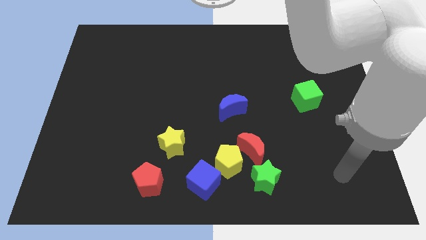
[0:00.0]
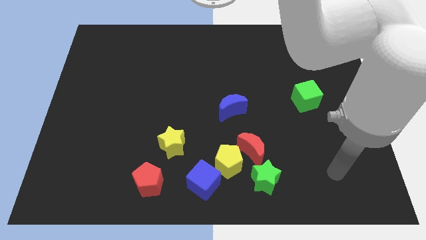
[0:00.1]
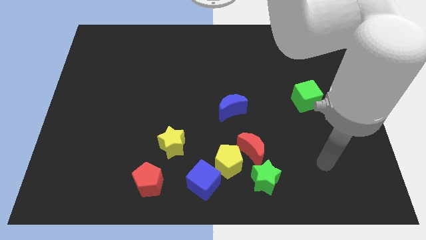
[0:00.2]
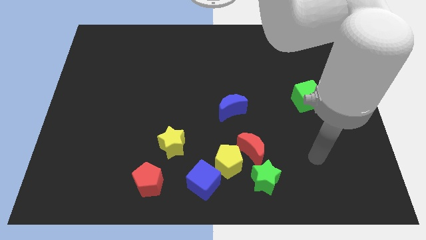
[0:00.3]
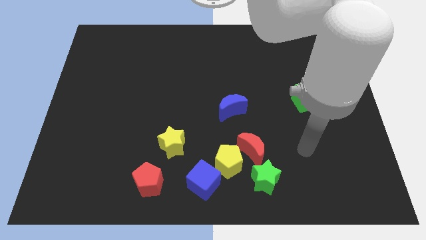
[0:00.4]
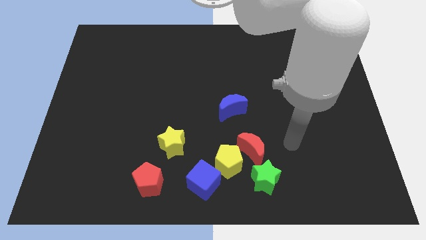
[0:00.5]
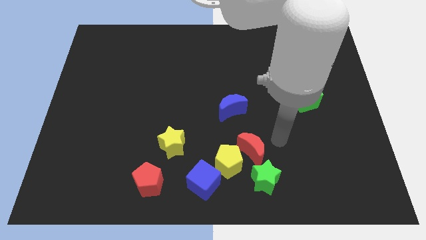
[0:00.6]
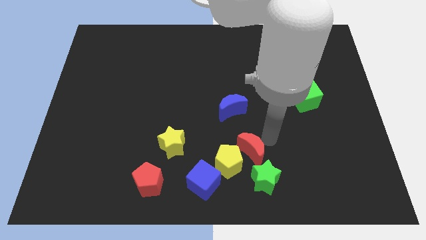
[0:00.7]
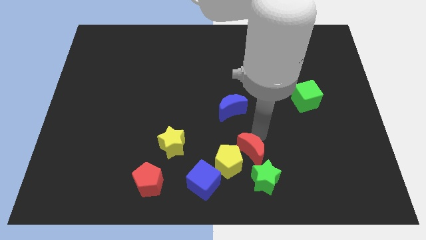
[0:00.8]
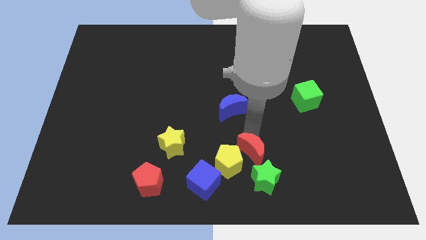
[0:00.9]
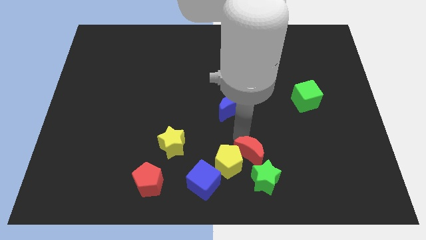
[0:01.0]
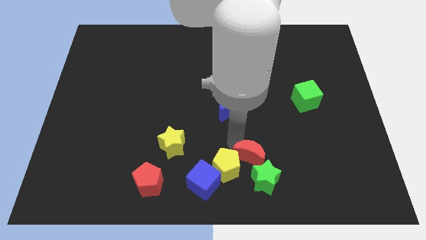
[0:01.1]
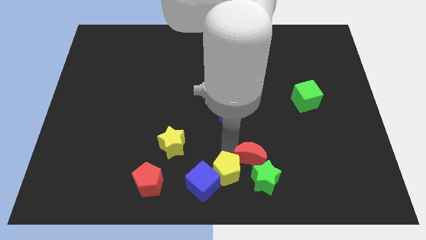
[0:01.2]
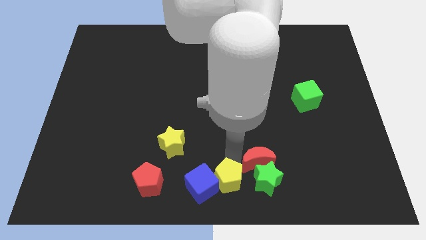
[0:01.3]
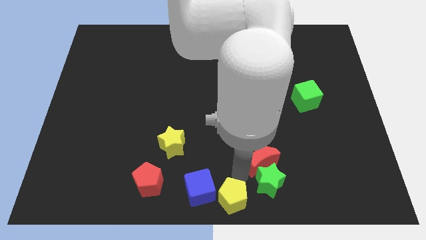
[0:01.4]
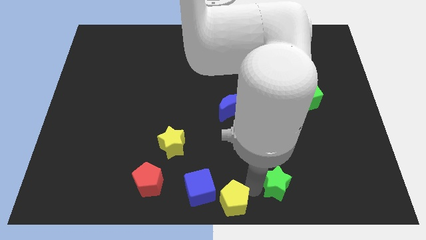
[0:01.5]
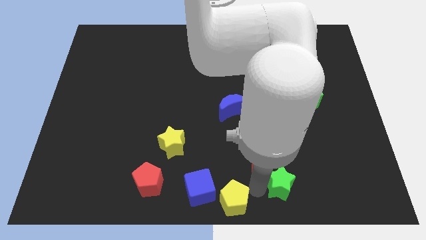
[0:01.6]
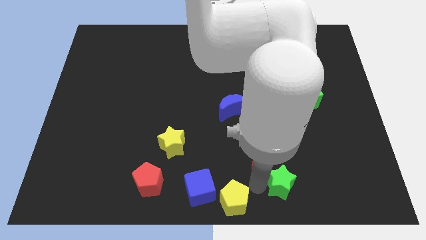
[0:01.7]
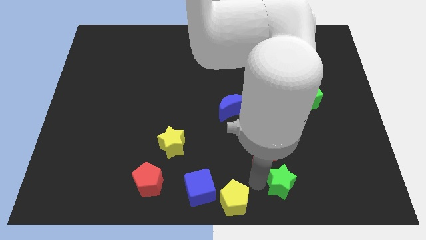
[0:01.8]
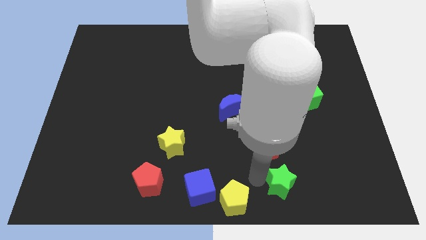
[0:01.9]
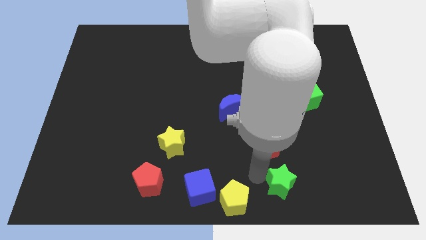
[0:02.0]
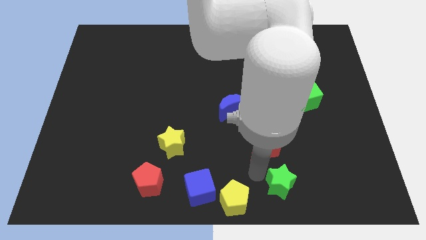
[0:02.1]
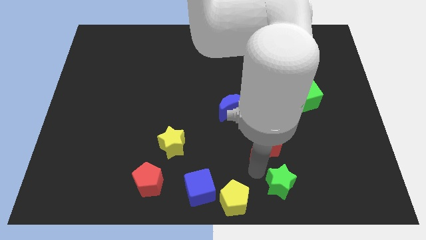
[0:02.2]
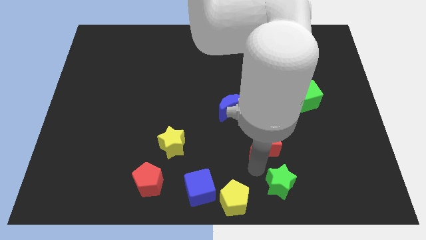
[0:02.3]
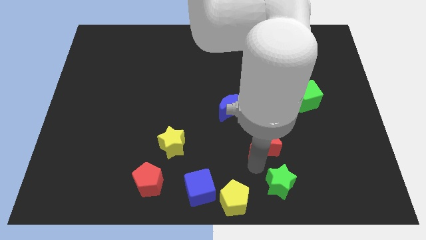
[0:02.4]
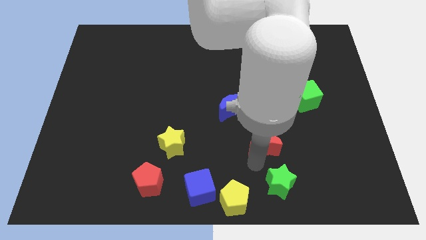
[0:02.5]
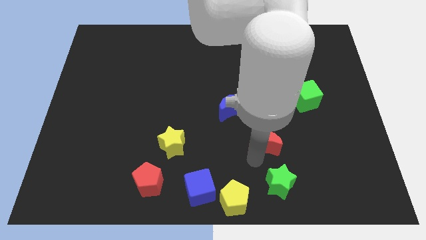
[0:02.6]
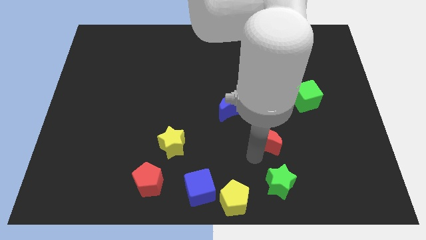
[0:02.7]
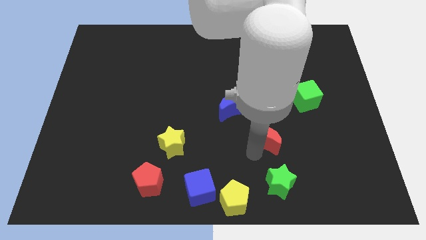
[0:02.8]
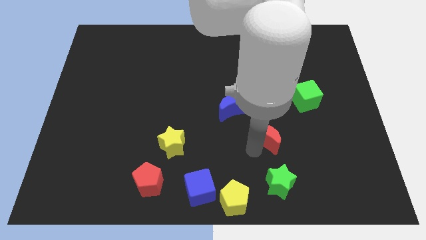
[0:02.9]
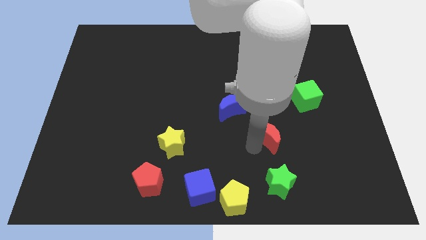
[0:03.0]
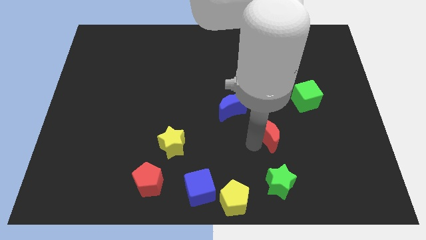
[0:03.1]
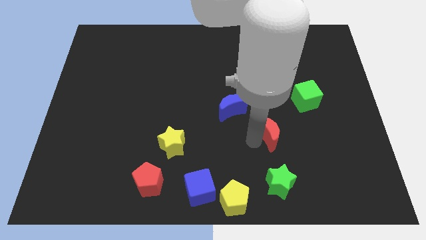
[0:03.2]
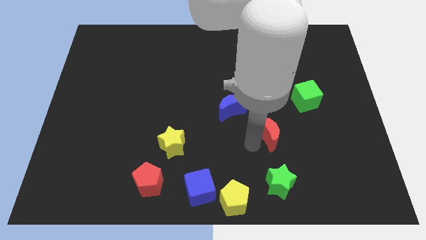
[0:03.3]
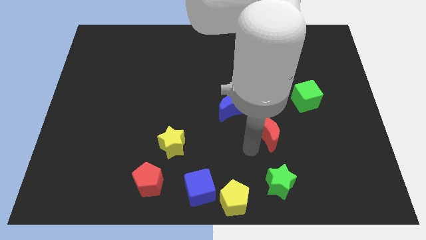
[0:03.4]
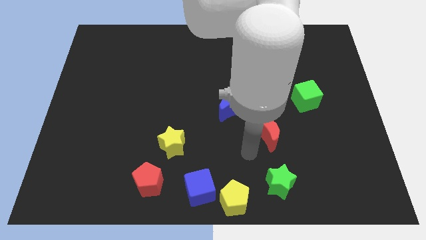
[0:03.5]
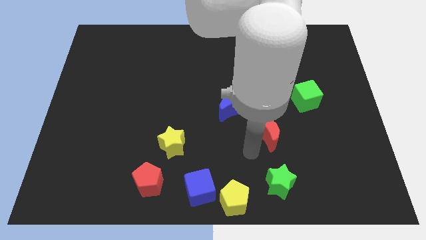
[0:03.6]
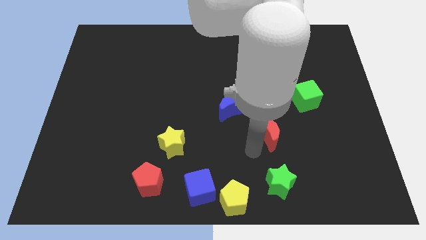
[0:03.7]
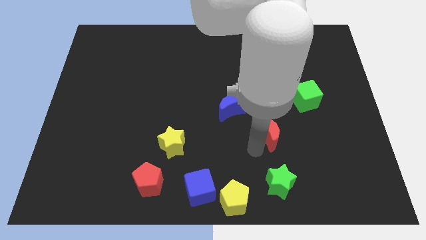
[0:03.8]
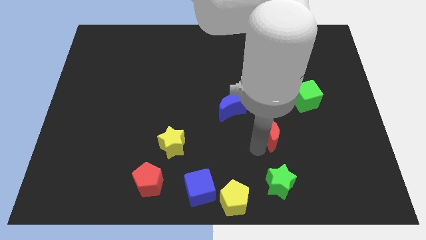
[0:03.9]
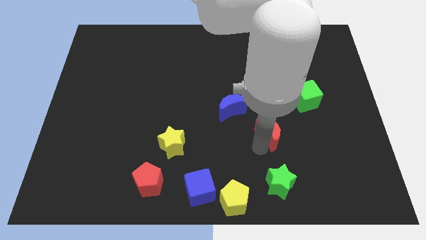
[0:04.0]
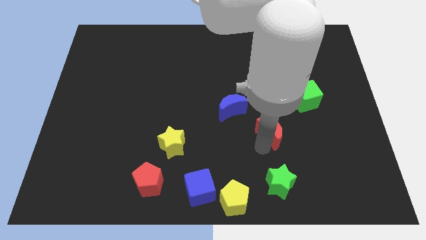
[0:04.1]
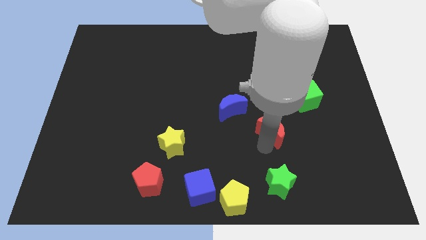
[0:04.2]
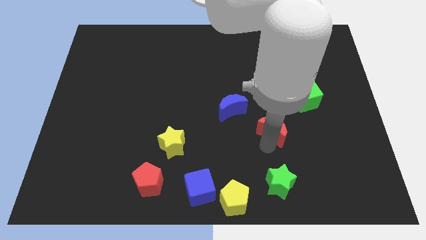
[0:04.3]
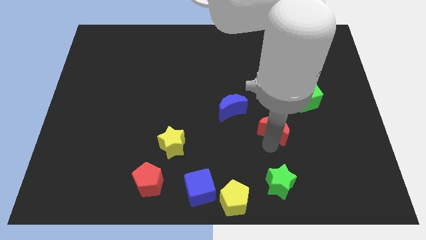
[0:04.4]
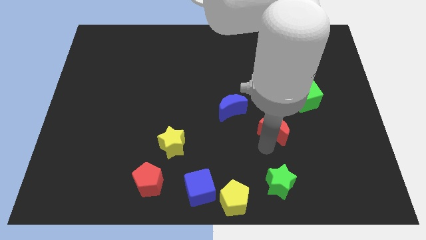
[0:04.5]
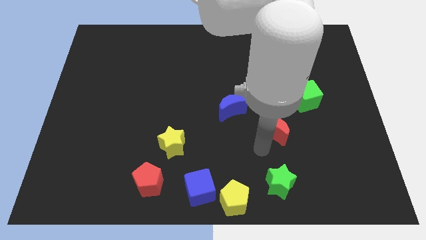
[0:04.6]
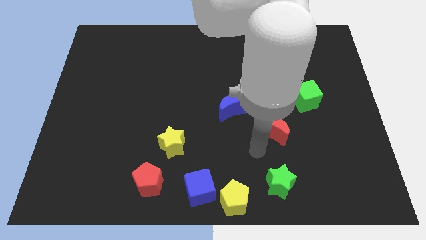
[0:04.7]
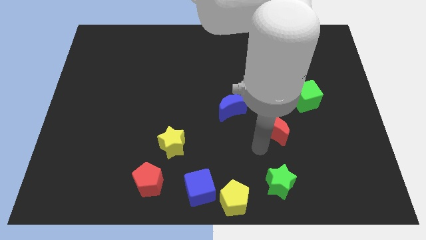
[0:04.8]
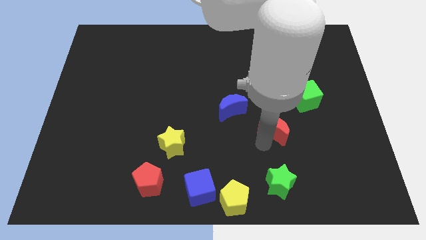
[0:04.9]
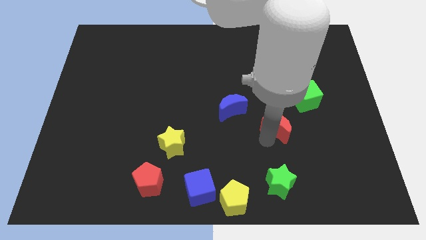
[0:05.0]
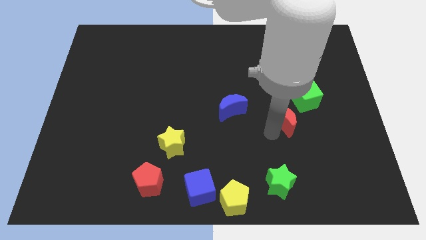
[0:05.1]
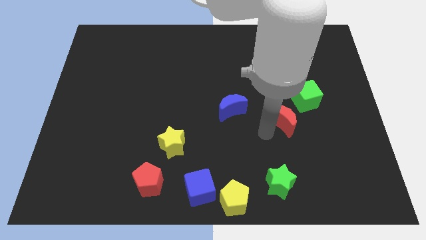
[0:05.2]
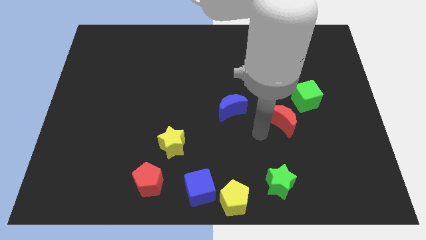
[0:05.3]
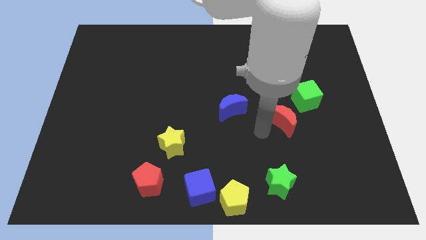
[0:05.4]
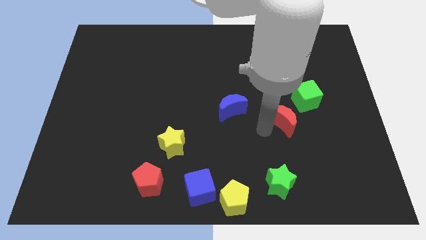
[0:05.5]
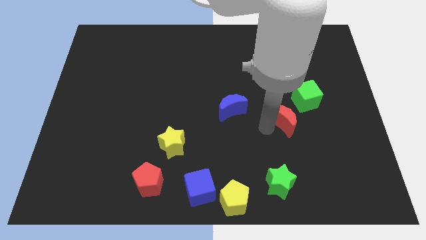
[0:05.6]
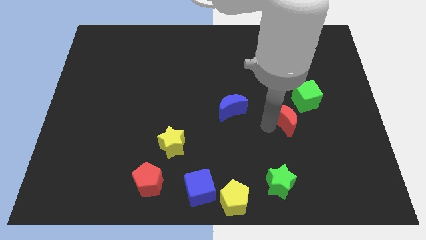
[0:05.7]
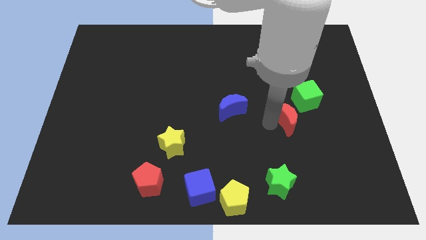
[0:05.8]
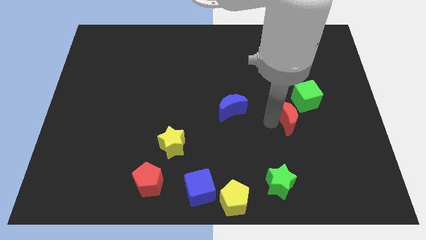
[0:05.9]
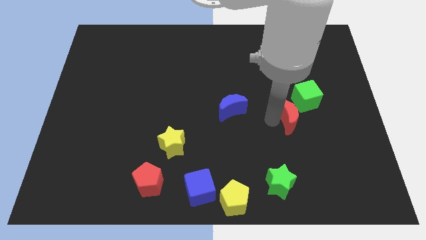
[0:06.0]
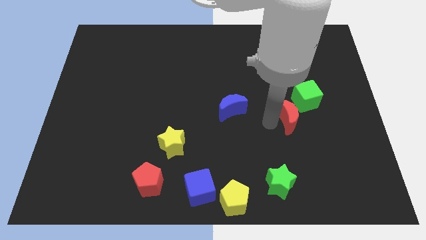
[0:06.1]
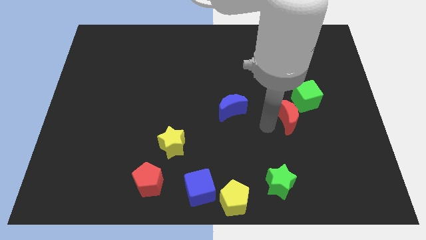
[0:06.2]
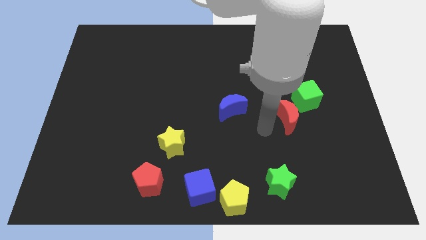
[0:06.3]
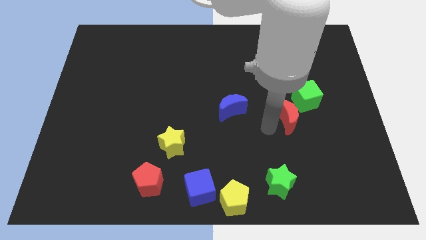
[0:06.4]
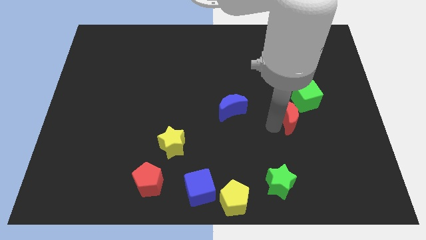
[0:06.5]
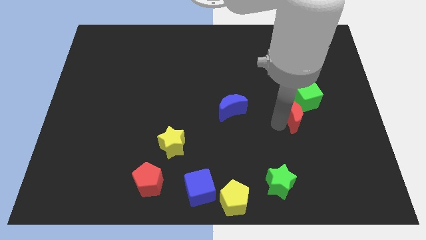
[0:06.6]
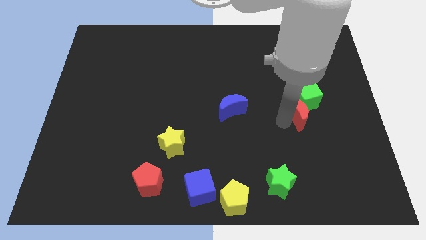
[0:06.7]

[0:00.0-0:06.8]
slide the red moon next to the green cube

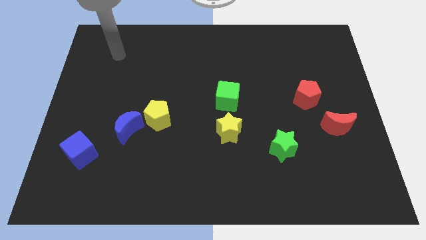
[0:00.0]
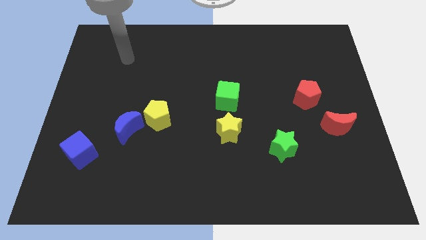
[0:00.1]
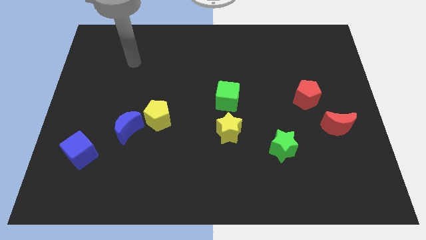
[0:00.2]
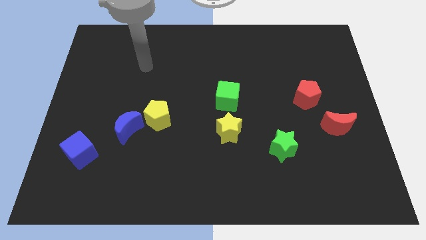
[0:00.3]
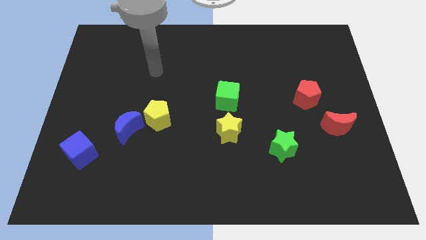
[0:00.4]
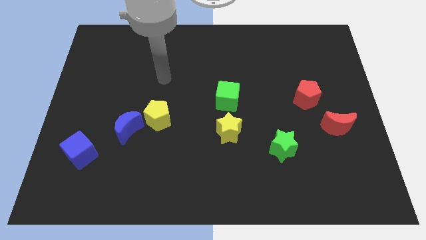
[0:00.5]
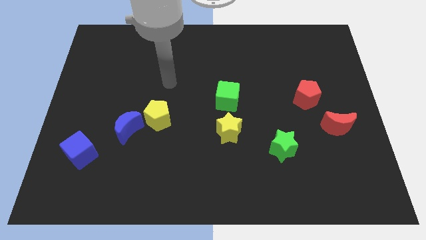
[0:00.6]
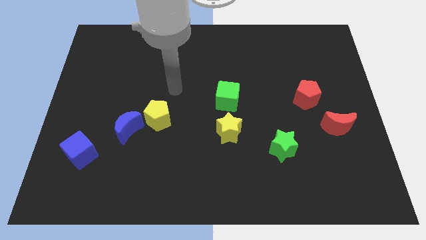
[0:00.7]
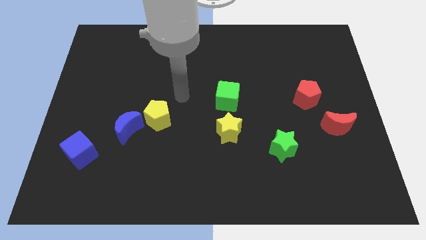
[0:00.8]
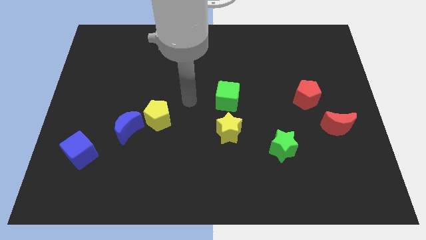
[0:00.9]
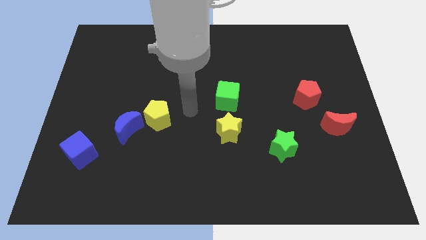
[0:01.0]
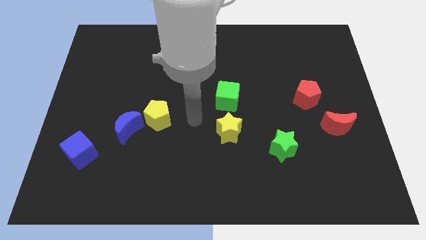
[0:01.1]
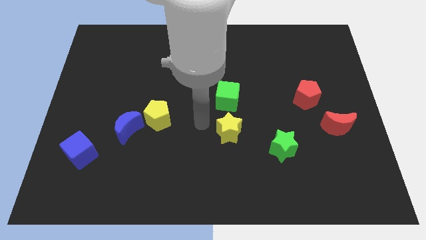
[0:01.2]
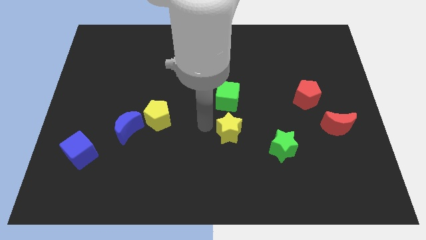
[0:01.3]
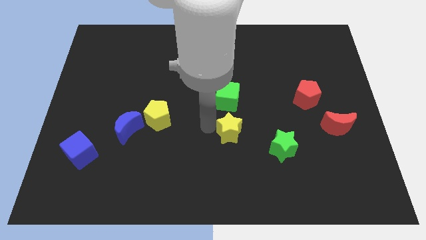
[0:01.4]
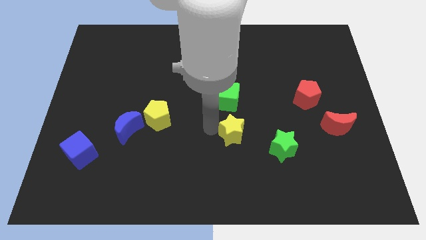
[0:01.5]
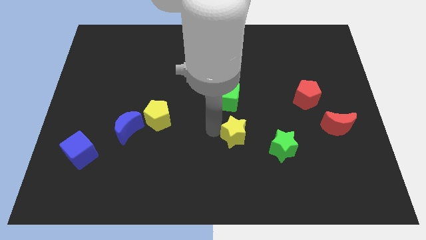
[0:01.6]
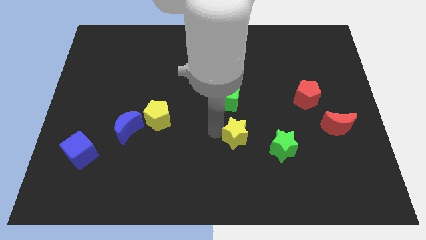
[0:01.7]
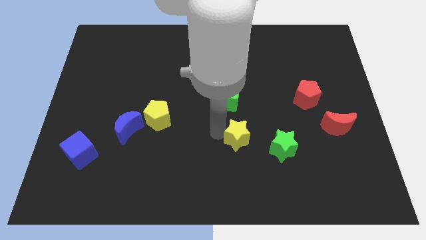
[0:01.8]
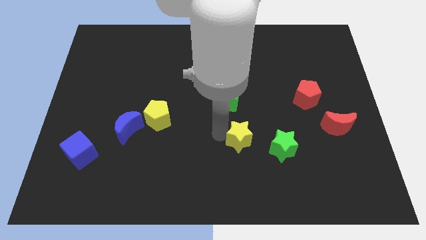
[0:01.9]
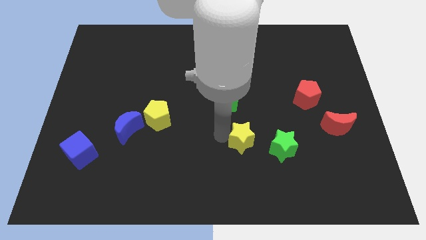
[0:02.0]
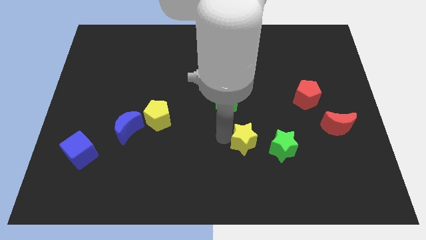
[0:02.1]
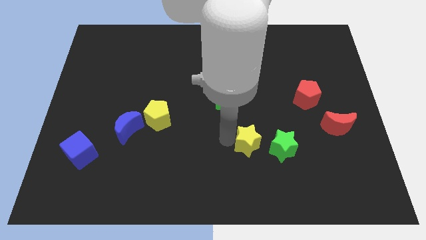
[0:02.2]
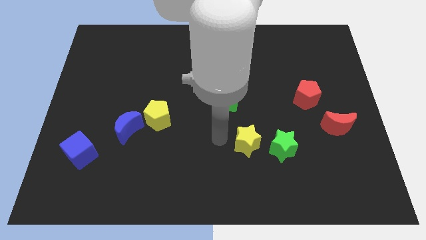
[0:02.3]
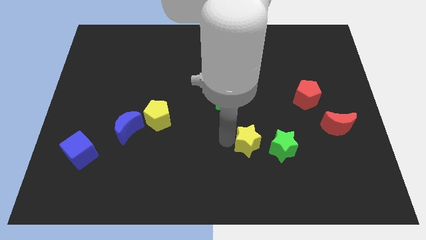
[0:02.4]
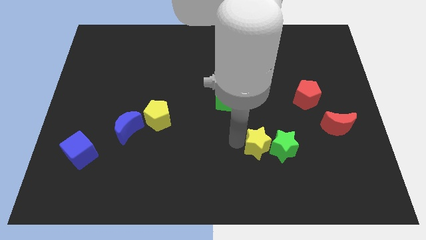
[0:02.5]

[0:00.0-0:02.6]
put the yellow star close to the green star
